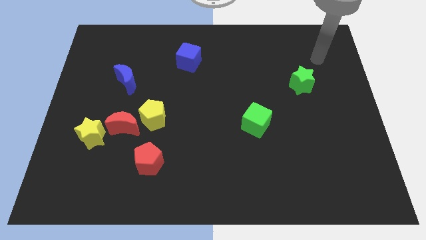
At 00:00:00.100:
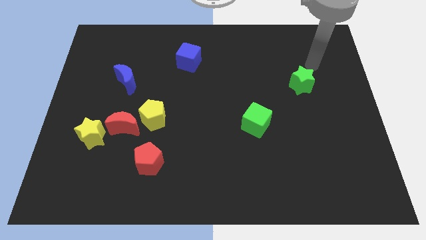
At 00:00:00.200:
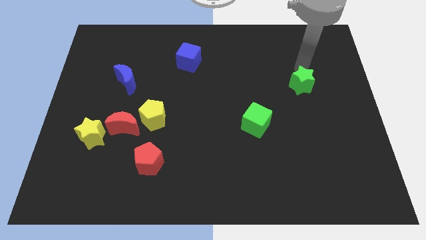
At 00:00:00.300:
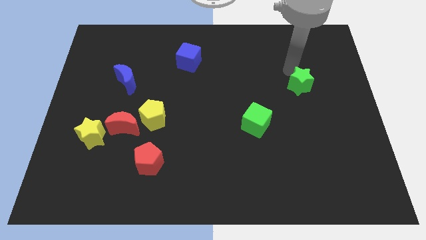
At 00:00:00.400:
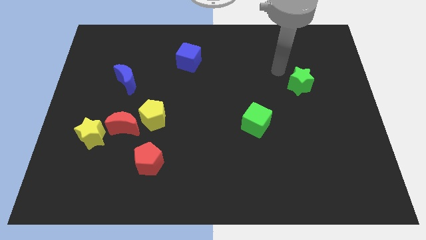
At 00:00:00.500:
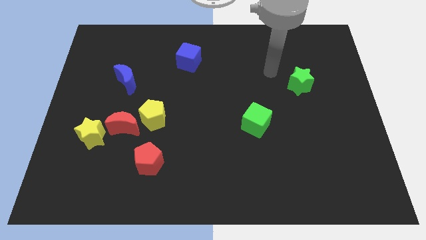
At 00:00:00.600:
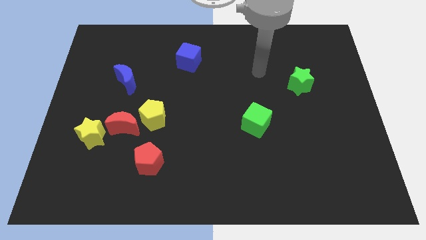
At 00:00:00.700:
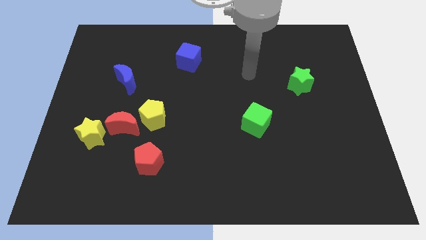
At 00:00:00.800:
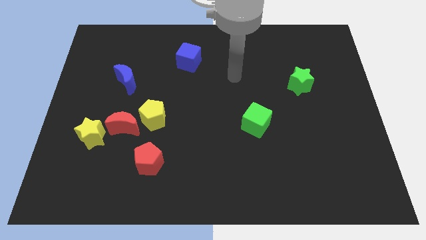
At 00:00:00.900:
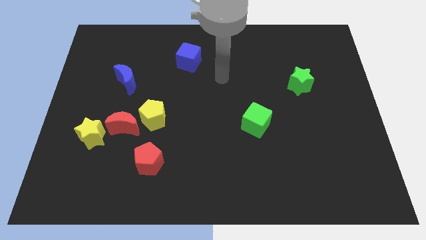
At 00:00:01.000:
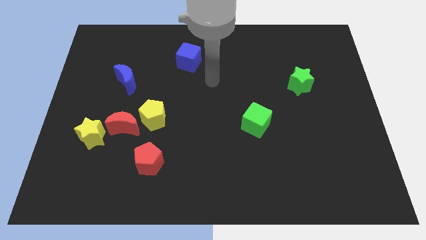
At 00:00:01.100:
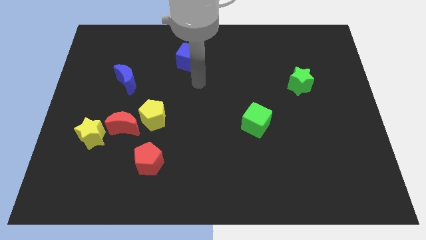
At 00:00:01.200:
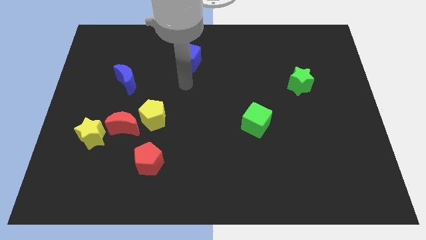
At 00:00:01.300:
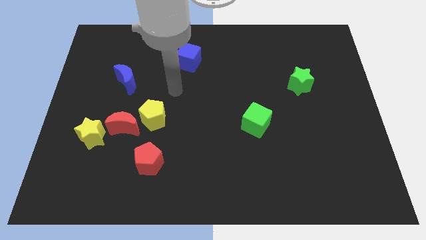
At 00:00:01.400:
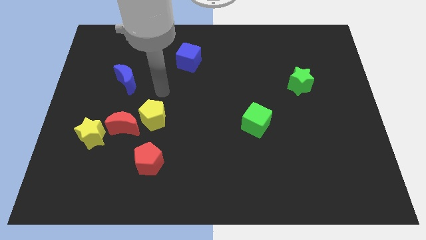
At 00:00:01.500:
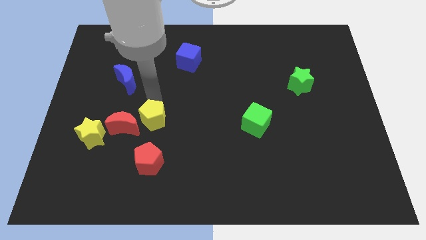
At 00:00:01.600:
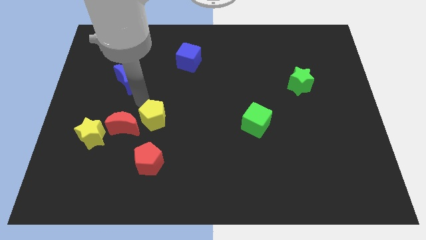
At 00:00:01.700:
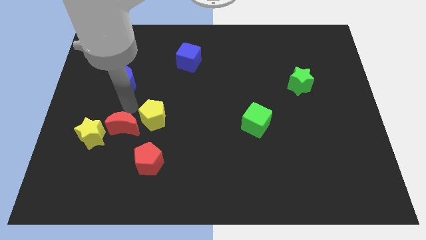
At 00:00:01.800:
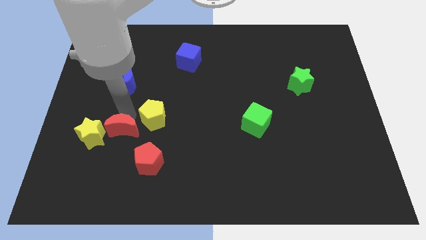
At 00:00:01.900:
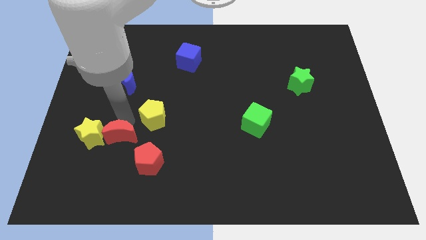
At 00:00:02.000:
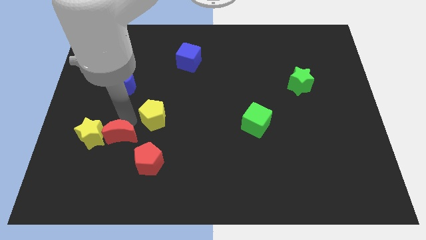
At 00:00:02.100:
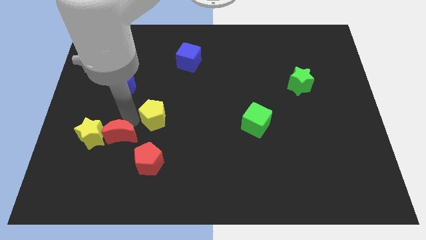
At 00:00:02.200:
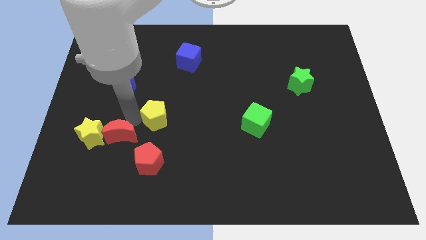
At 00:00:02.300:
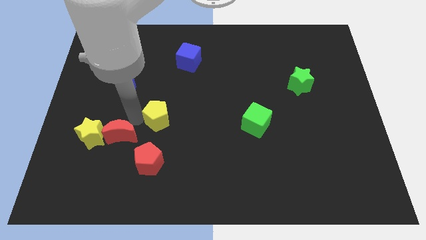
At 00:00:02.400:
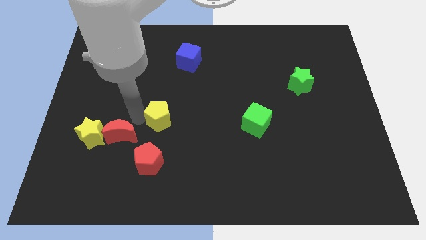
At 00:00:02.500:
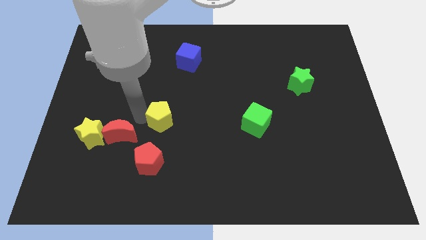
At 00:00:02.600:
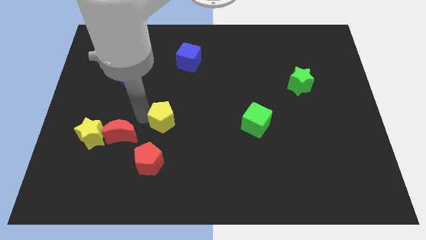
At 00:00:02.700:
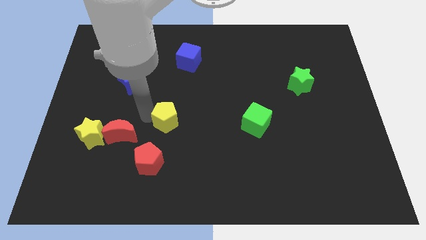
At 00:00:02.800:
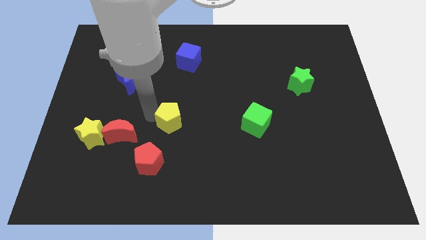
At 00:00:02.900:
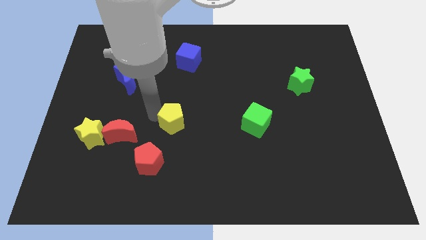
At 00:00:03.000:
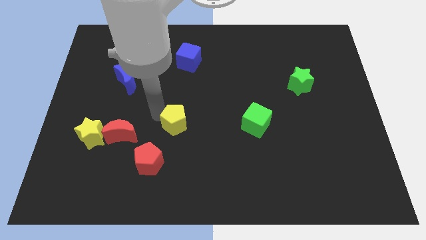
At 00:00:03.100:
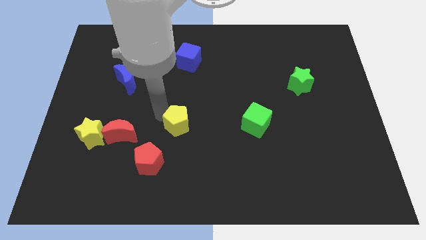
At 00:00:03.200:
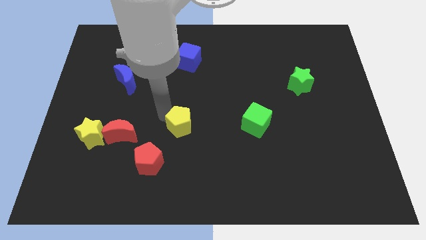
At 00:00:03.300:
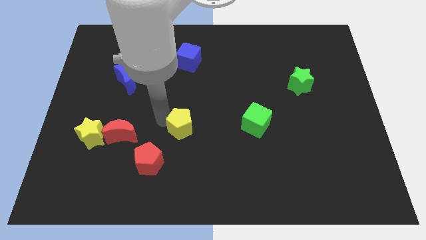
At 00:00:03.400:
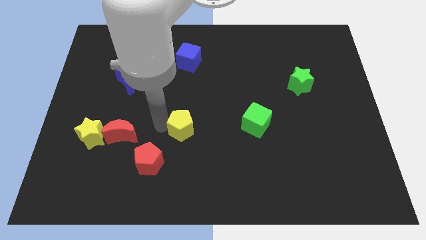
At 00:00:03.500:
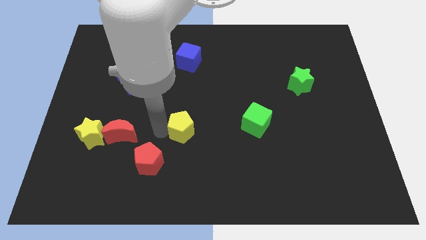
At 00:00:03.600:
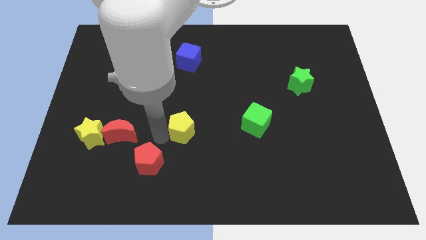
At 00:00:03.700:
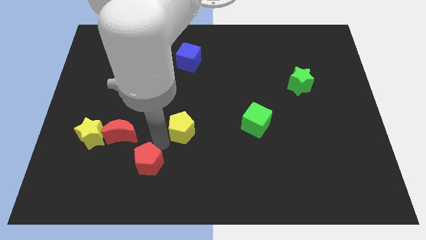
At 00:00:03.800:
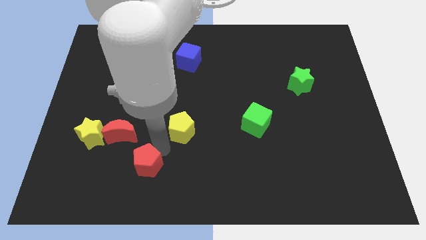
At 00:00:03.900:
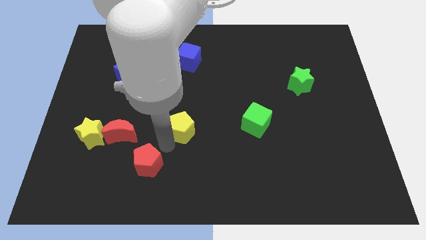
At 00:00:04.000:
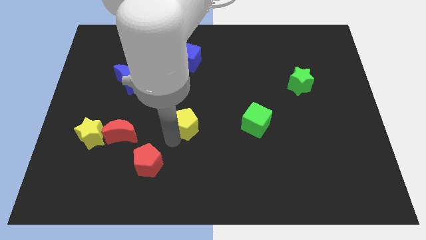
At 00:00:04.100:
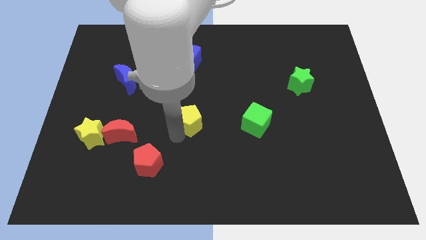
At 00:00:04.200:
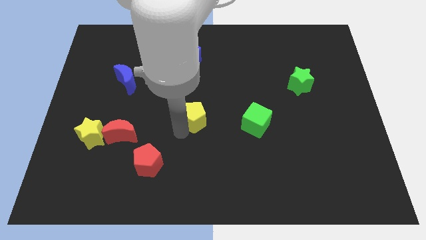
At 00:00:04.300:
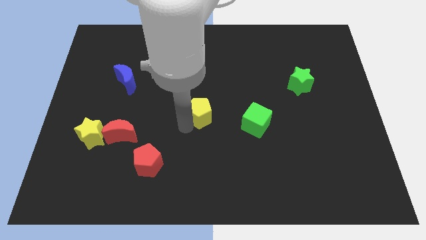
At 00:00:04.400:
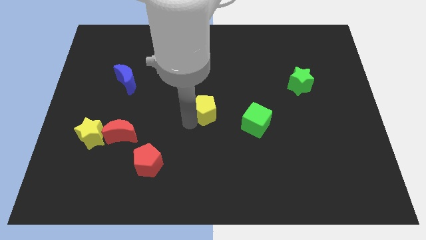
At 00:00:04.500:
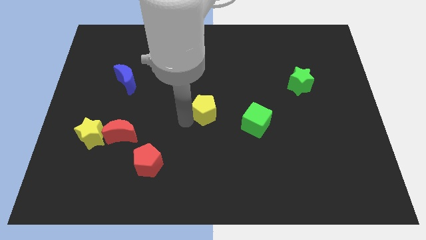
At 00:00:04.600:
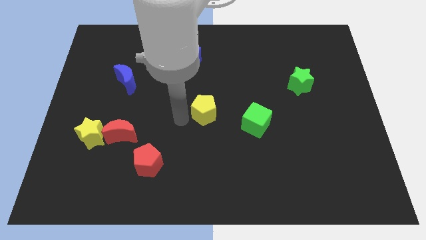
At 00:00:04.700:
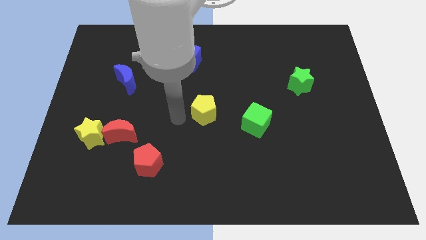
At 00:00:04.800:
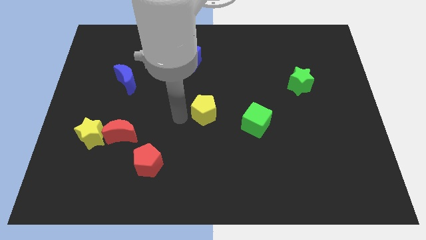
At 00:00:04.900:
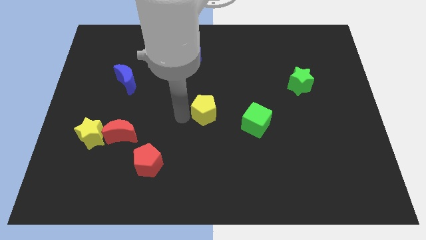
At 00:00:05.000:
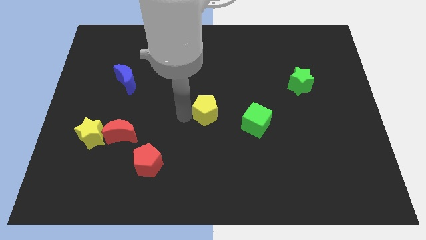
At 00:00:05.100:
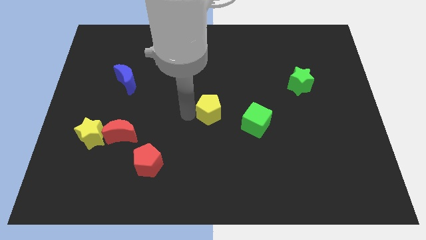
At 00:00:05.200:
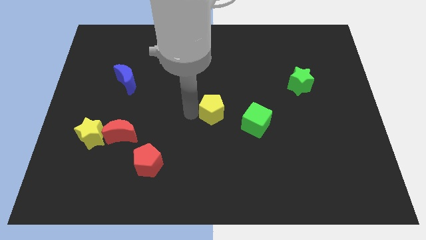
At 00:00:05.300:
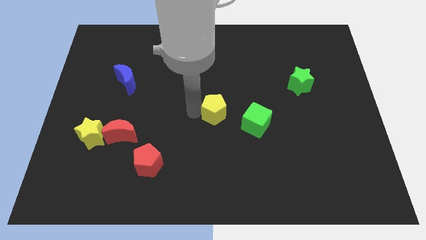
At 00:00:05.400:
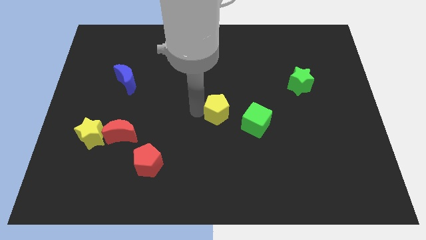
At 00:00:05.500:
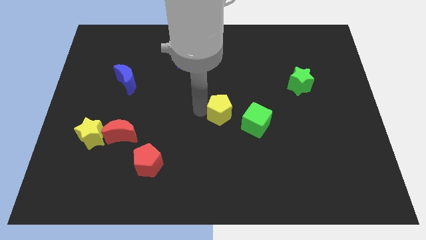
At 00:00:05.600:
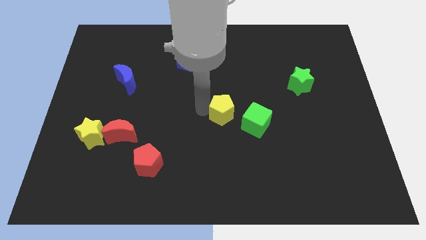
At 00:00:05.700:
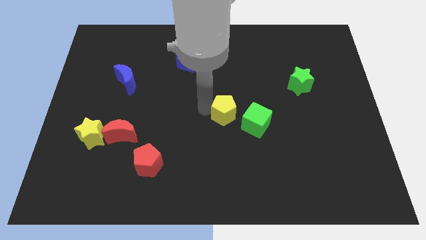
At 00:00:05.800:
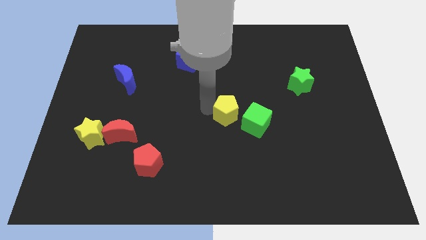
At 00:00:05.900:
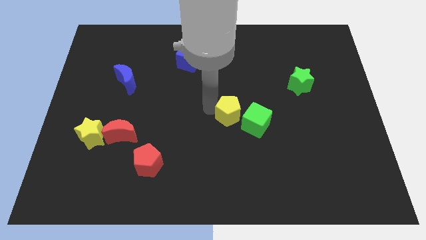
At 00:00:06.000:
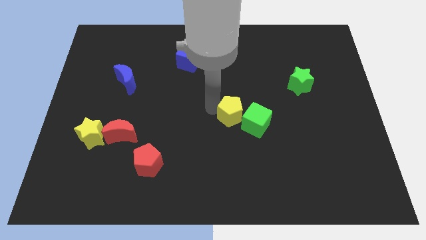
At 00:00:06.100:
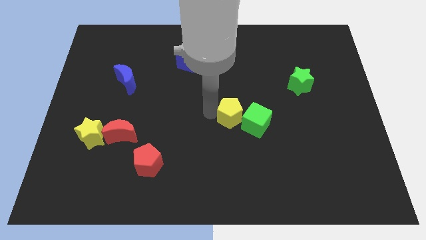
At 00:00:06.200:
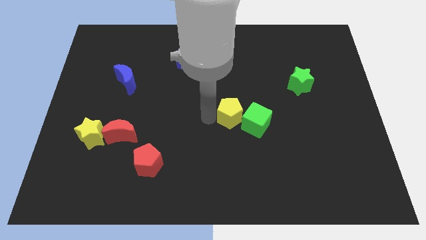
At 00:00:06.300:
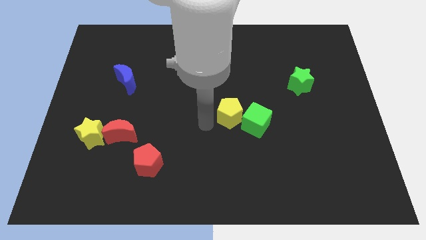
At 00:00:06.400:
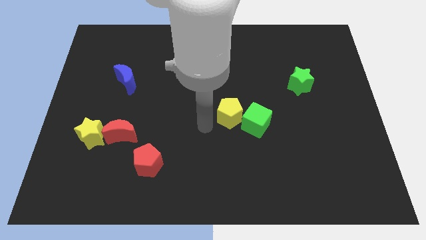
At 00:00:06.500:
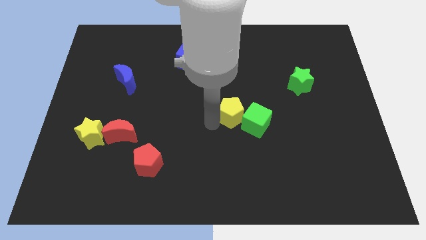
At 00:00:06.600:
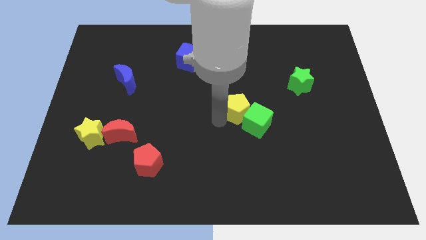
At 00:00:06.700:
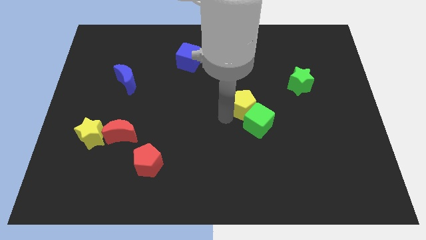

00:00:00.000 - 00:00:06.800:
move the yellow pentagon right

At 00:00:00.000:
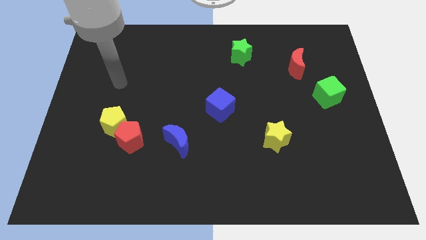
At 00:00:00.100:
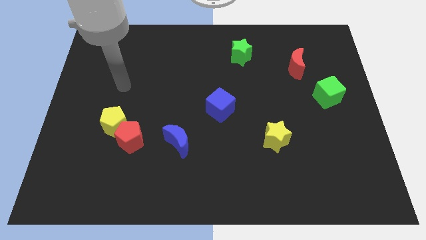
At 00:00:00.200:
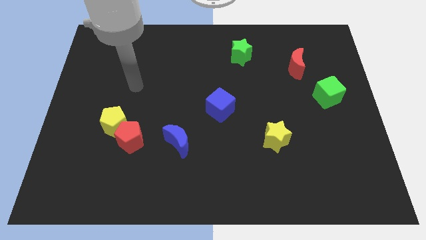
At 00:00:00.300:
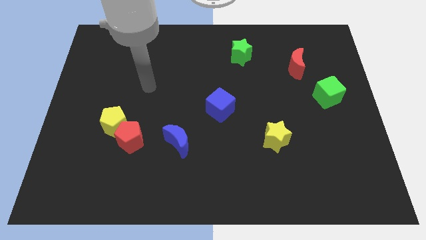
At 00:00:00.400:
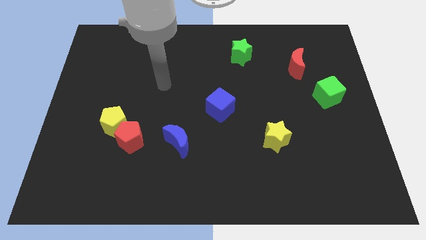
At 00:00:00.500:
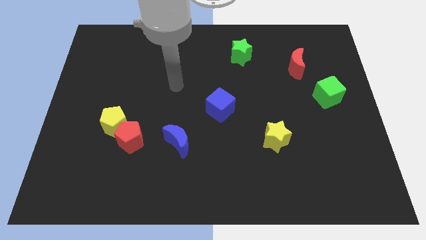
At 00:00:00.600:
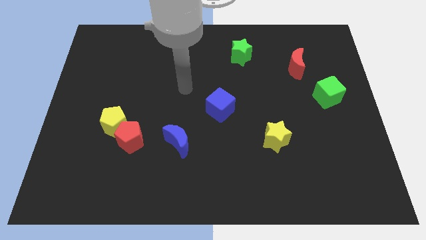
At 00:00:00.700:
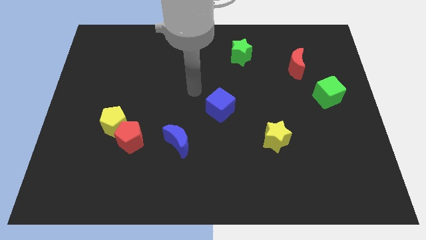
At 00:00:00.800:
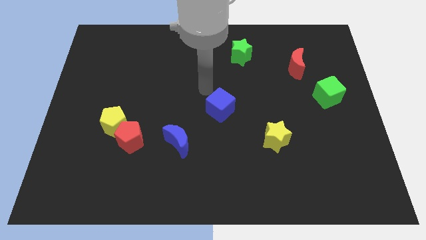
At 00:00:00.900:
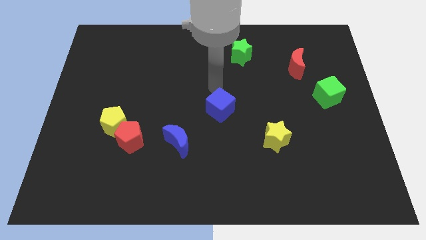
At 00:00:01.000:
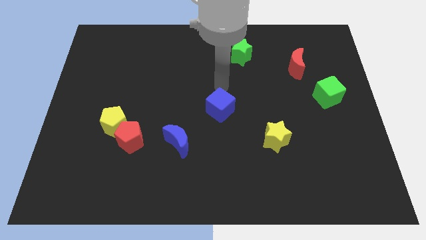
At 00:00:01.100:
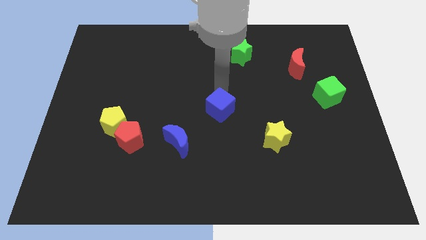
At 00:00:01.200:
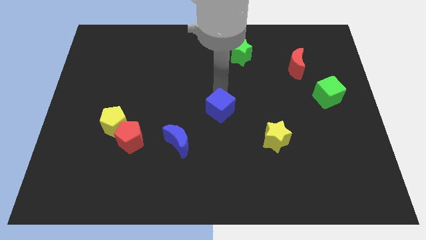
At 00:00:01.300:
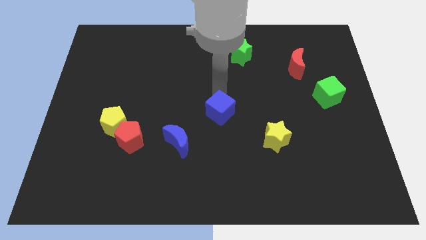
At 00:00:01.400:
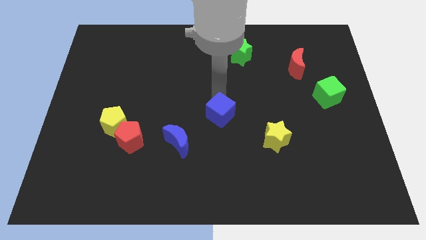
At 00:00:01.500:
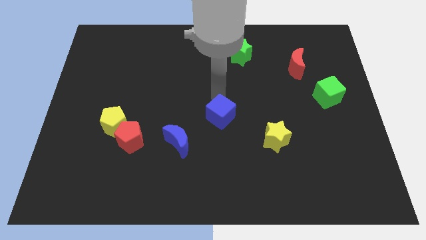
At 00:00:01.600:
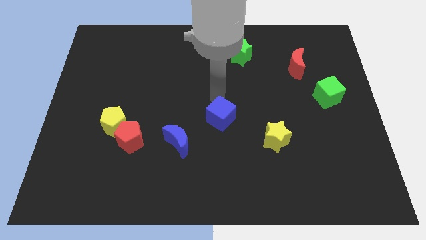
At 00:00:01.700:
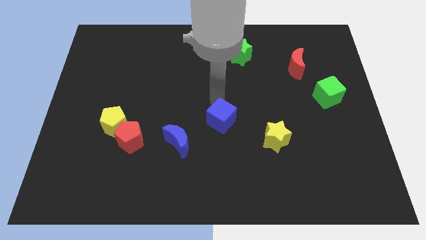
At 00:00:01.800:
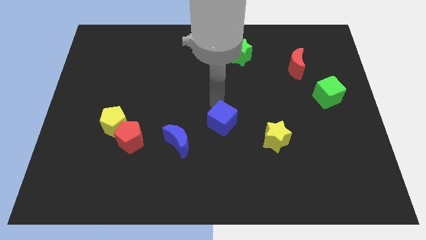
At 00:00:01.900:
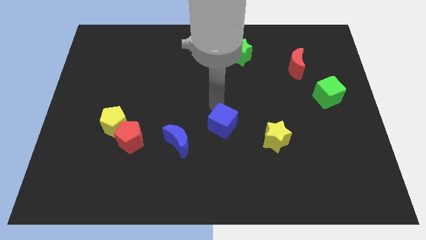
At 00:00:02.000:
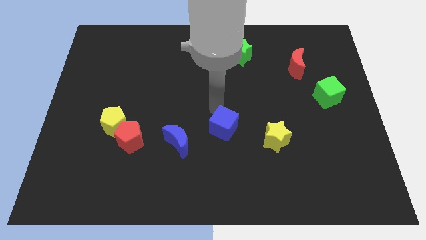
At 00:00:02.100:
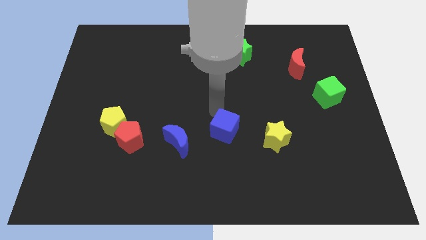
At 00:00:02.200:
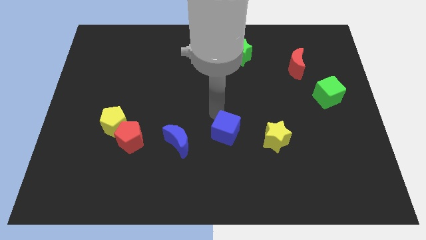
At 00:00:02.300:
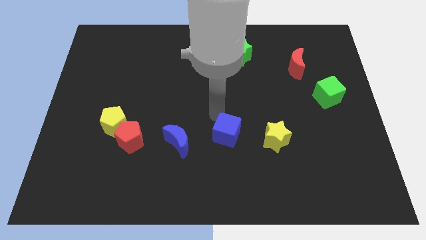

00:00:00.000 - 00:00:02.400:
slightly move the blue cube downwards
